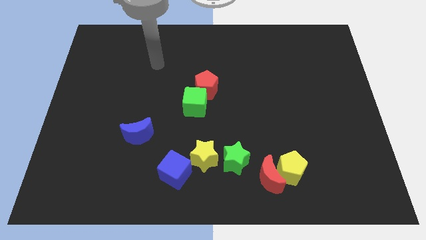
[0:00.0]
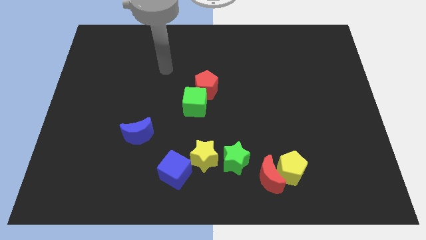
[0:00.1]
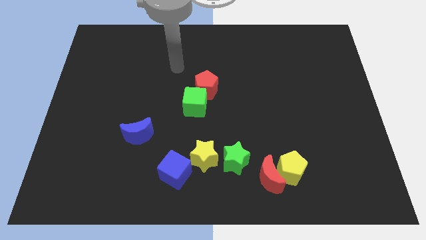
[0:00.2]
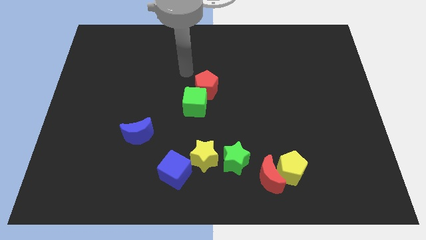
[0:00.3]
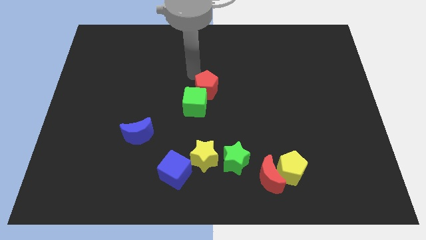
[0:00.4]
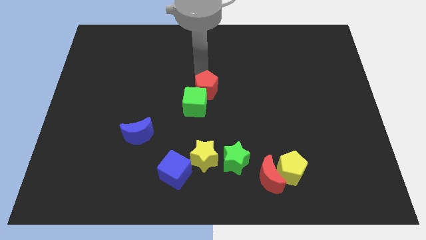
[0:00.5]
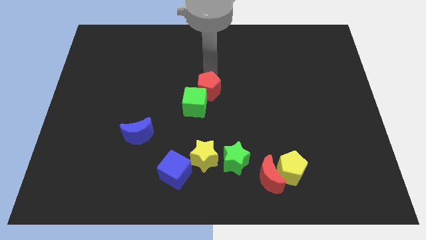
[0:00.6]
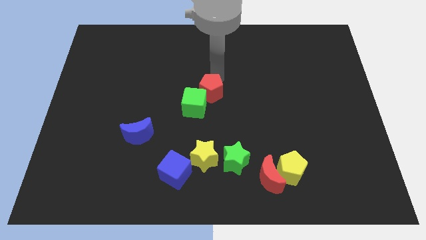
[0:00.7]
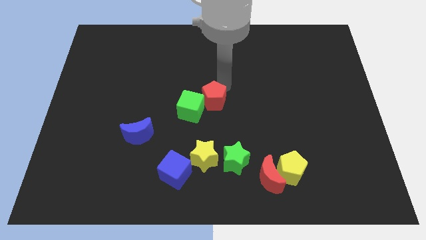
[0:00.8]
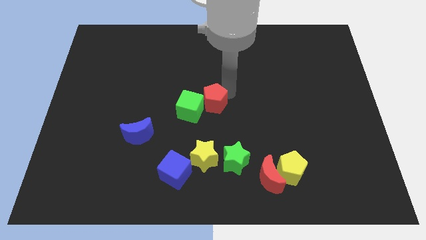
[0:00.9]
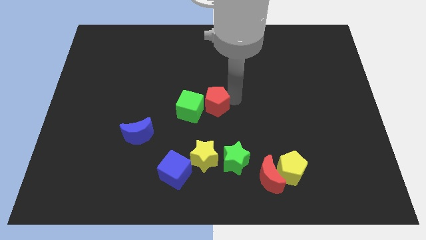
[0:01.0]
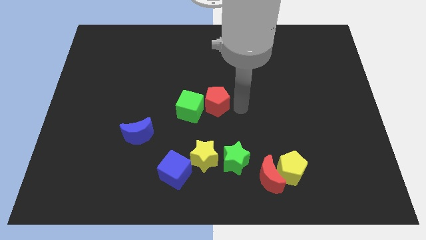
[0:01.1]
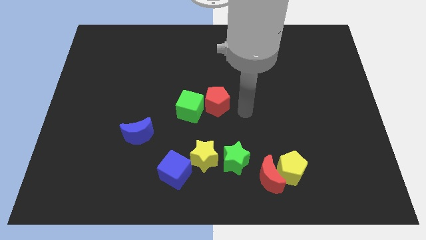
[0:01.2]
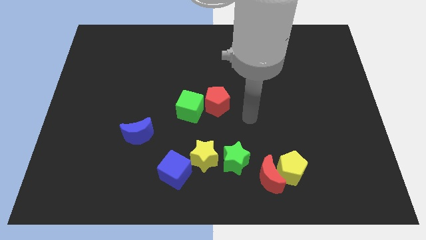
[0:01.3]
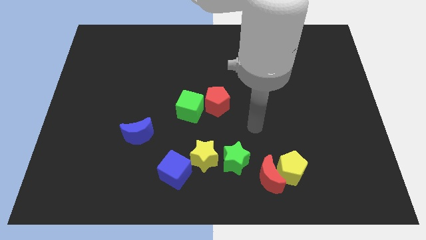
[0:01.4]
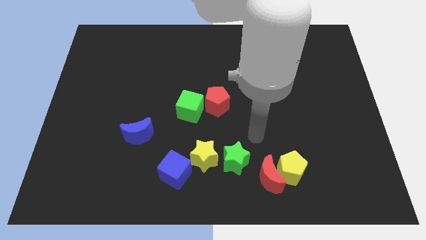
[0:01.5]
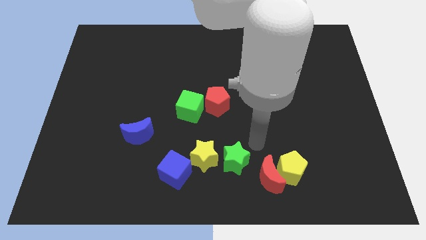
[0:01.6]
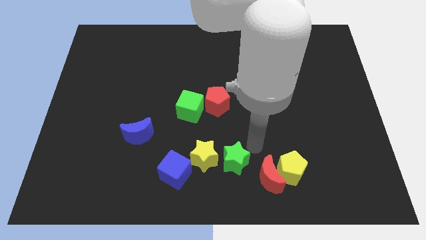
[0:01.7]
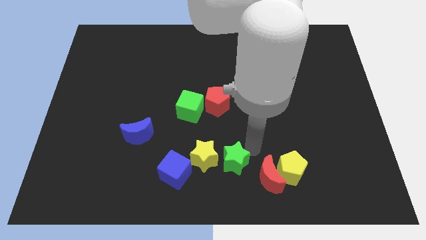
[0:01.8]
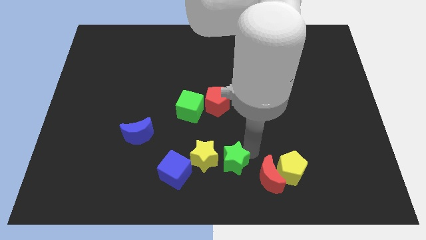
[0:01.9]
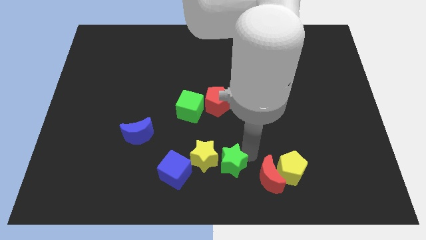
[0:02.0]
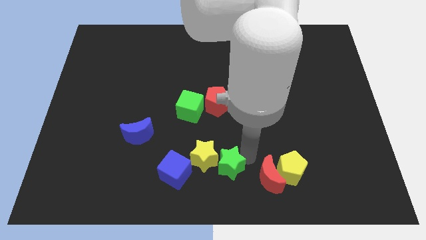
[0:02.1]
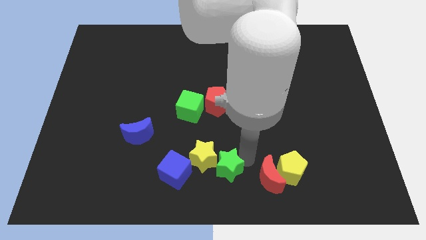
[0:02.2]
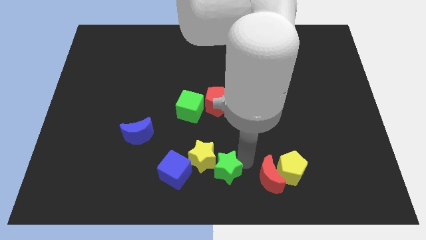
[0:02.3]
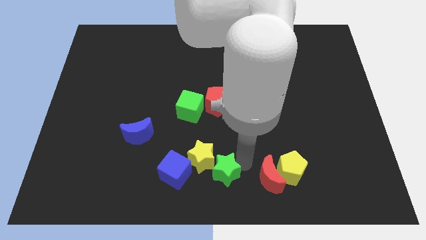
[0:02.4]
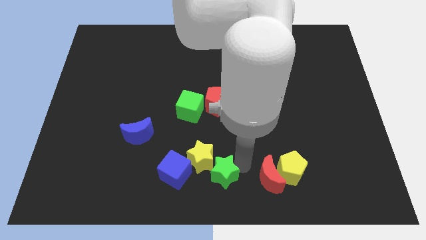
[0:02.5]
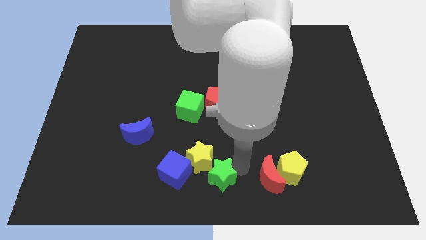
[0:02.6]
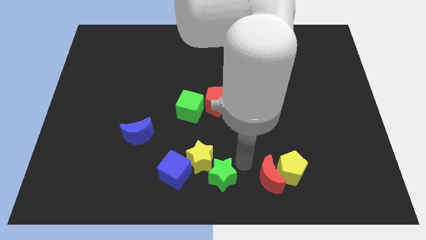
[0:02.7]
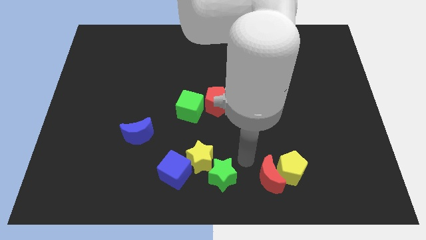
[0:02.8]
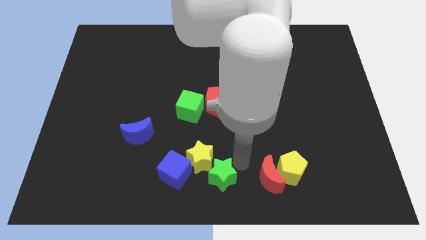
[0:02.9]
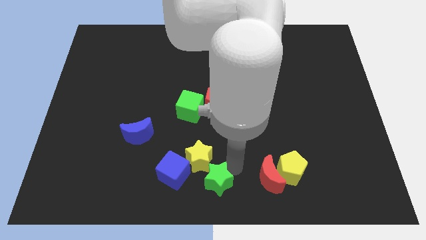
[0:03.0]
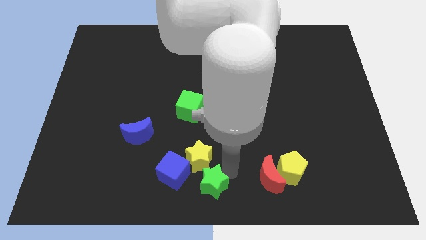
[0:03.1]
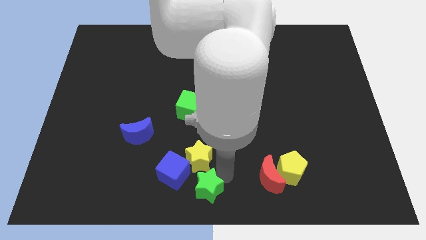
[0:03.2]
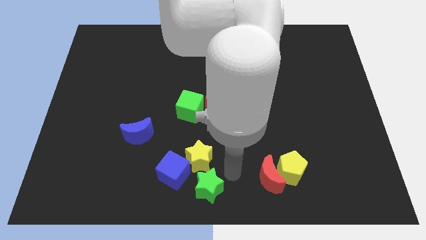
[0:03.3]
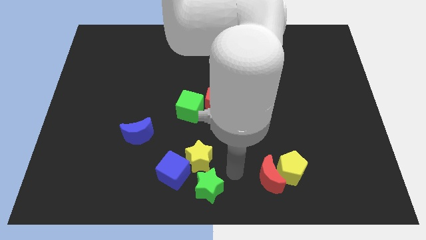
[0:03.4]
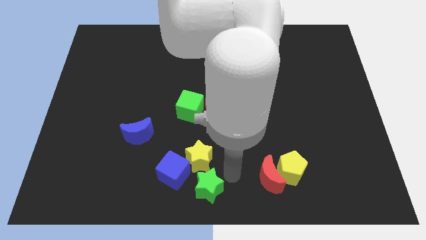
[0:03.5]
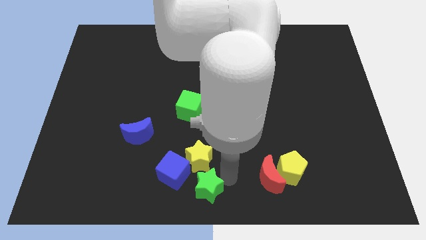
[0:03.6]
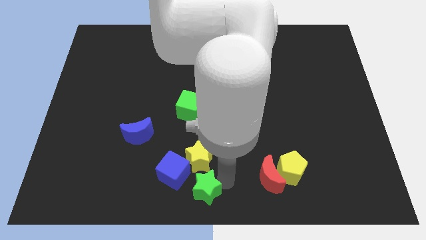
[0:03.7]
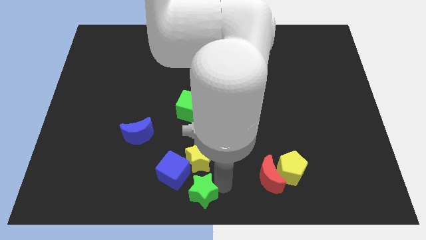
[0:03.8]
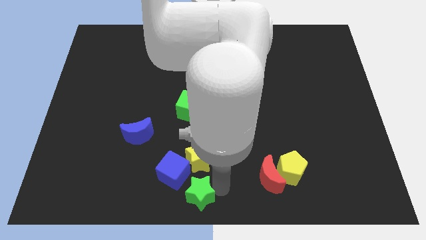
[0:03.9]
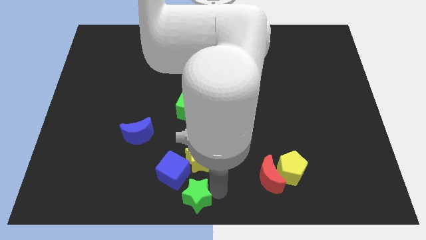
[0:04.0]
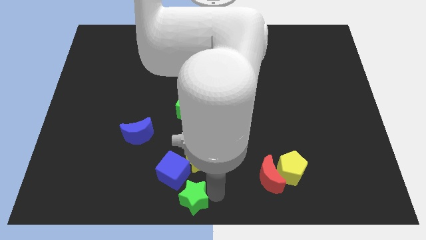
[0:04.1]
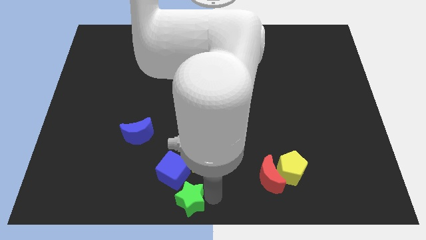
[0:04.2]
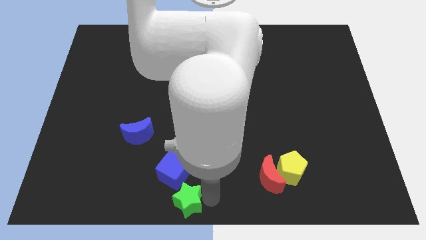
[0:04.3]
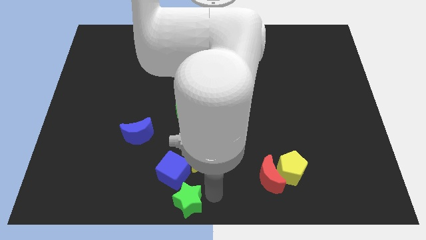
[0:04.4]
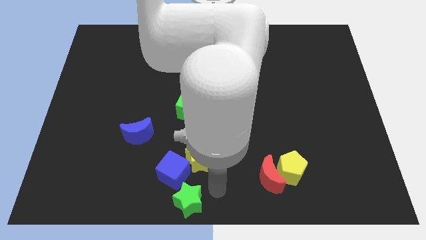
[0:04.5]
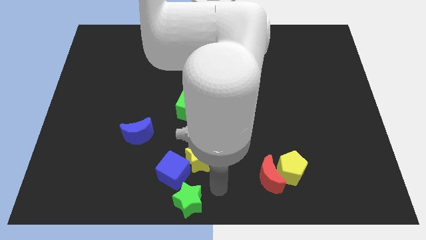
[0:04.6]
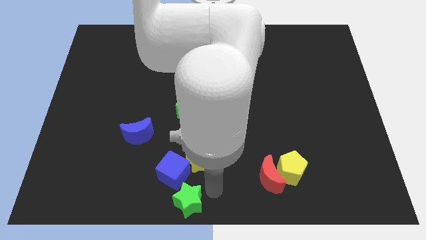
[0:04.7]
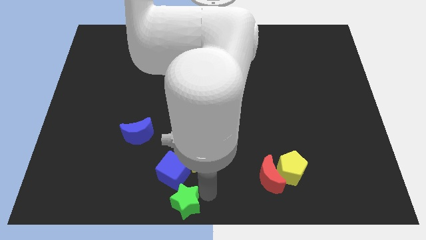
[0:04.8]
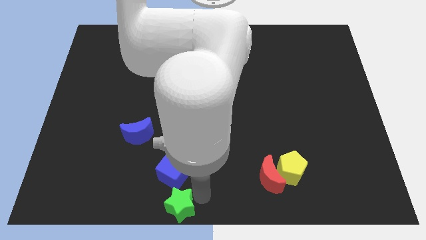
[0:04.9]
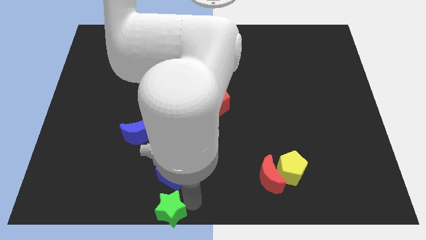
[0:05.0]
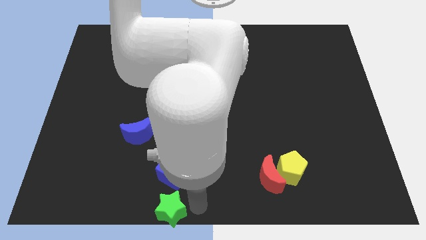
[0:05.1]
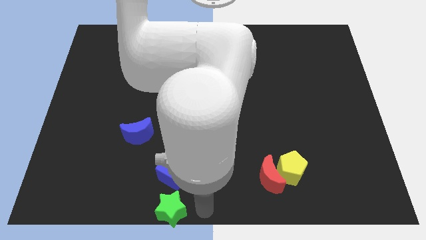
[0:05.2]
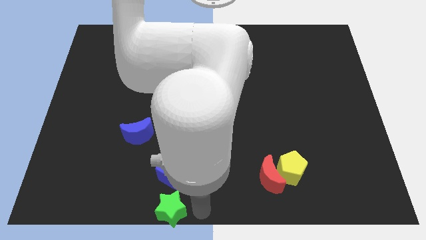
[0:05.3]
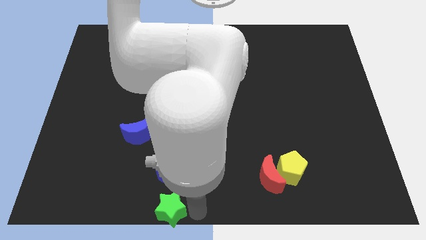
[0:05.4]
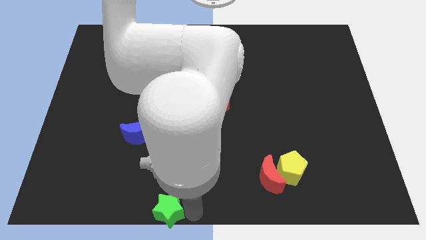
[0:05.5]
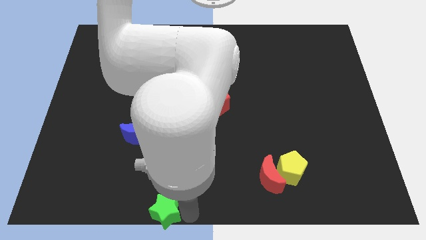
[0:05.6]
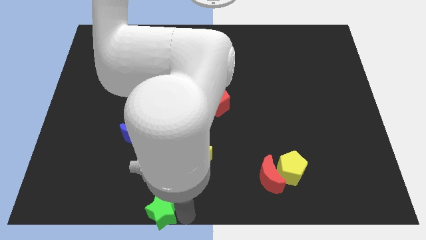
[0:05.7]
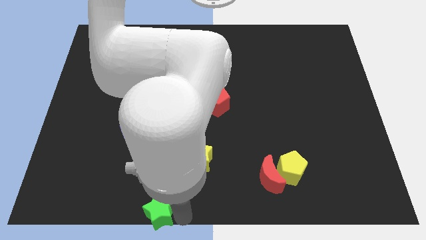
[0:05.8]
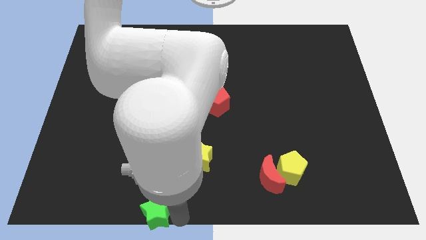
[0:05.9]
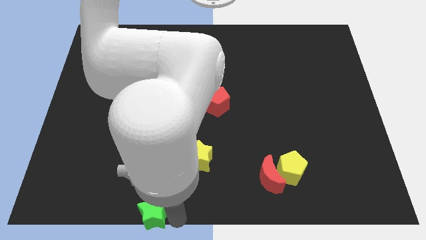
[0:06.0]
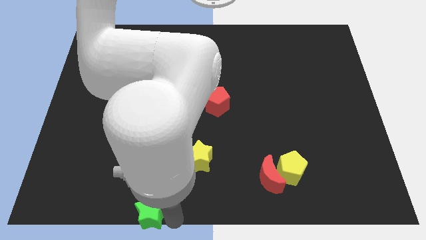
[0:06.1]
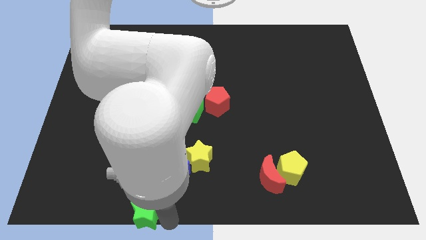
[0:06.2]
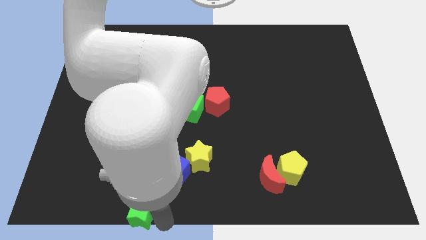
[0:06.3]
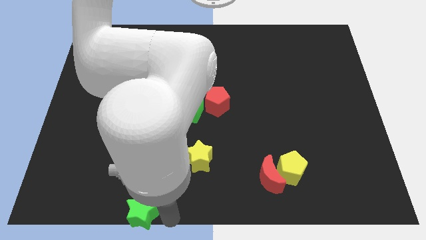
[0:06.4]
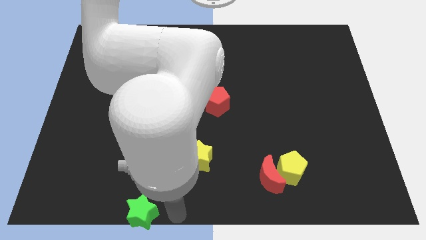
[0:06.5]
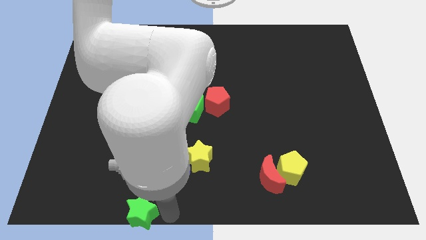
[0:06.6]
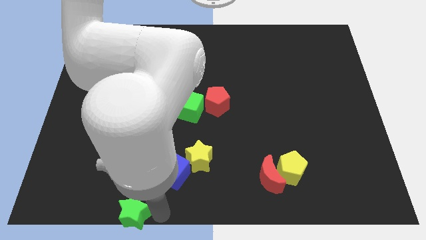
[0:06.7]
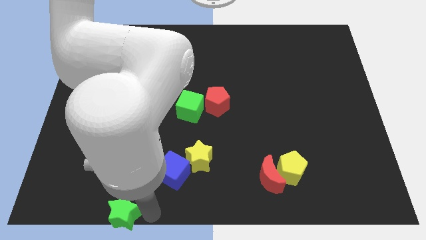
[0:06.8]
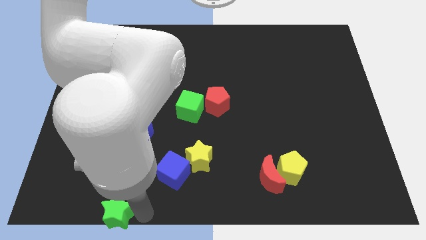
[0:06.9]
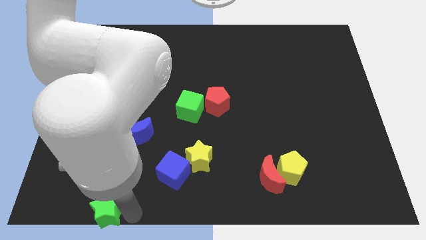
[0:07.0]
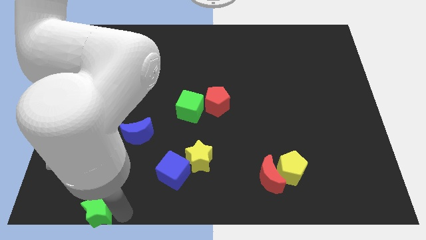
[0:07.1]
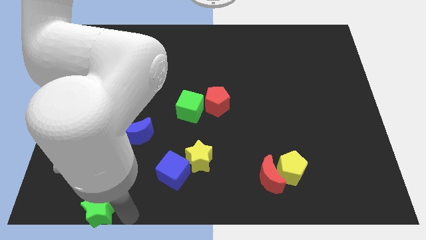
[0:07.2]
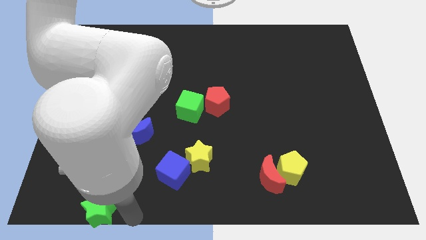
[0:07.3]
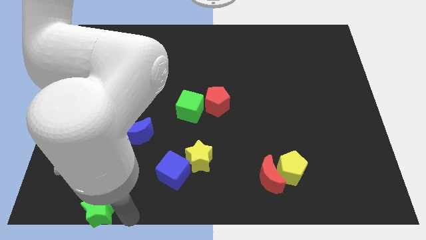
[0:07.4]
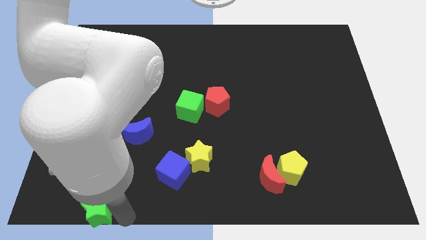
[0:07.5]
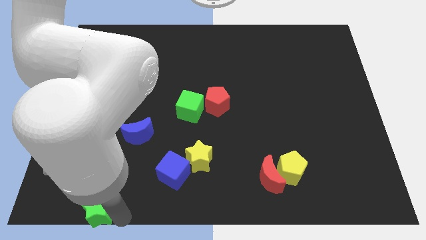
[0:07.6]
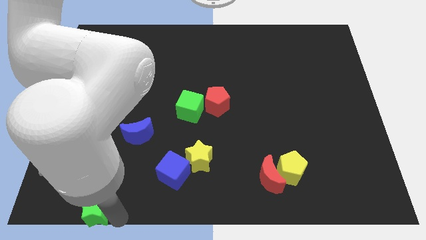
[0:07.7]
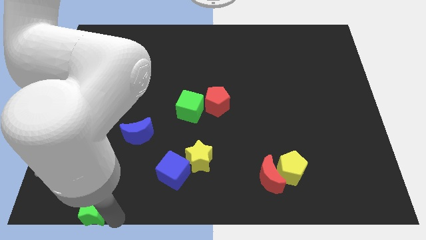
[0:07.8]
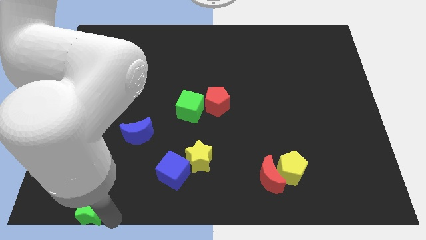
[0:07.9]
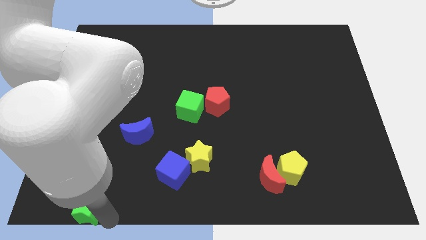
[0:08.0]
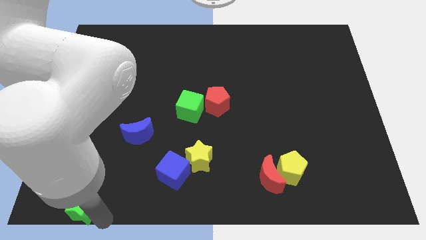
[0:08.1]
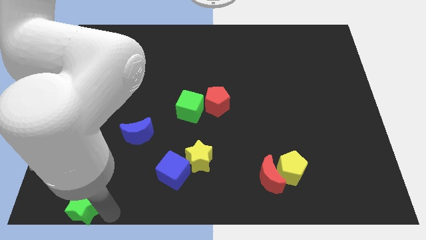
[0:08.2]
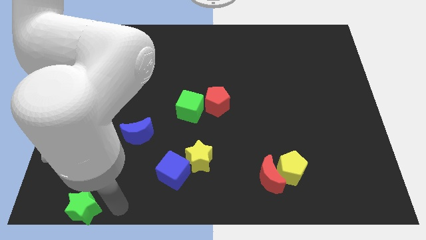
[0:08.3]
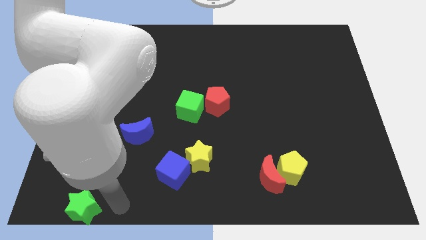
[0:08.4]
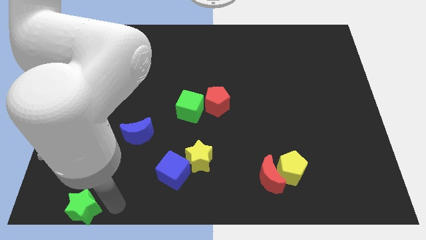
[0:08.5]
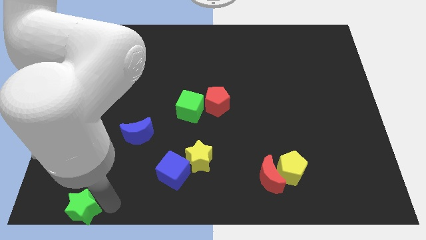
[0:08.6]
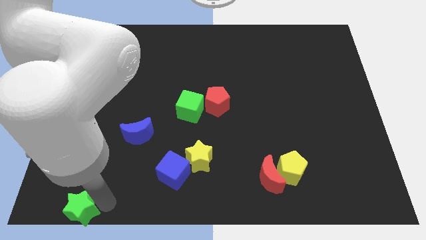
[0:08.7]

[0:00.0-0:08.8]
slide the green star to the bottom left corner
